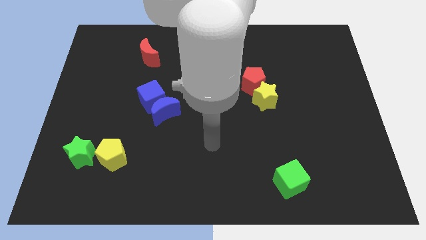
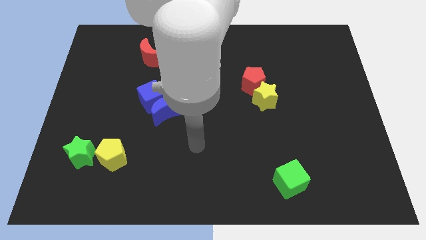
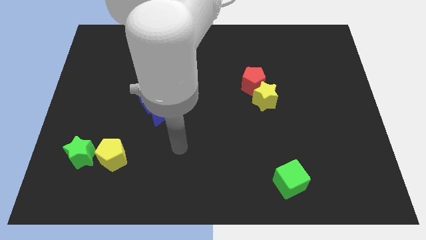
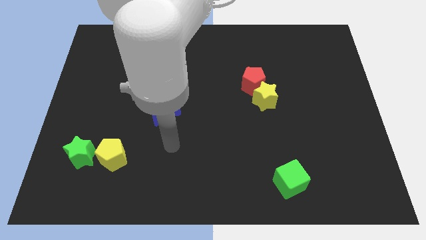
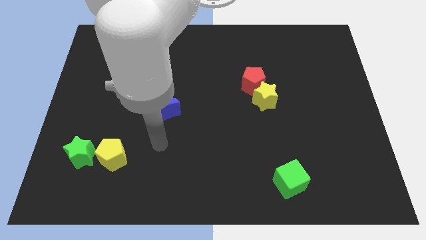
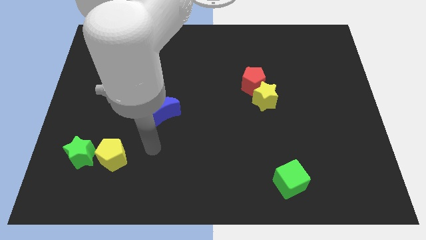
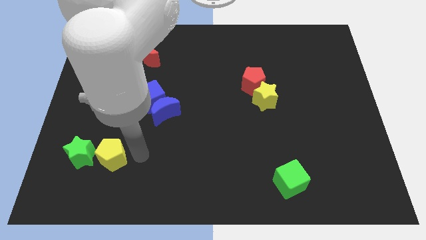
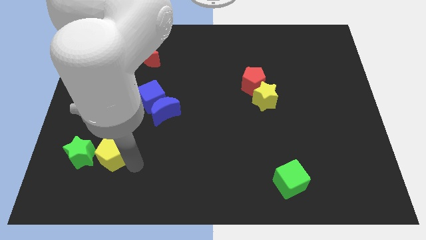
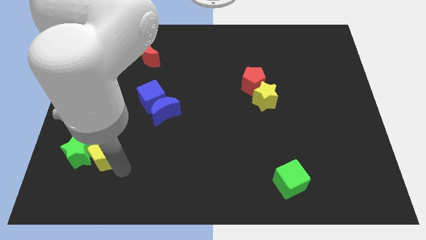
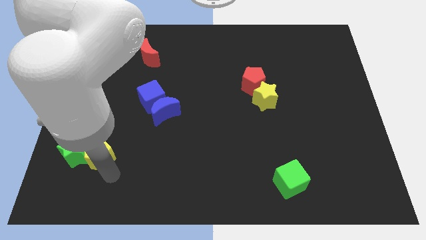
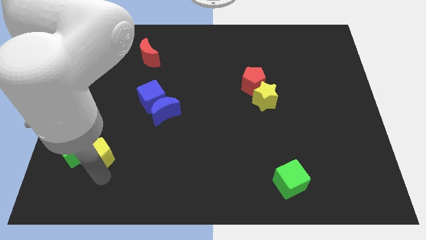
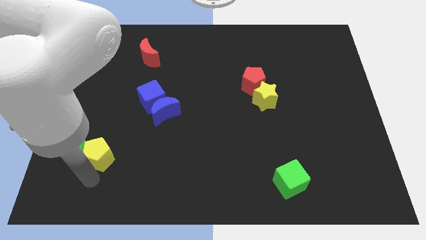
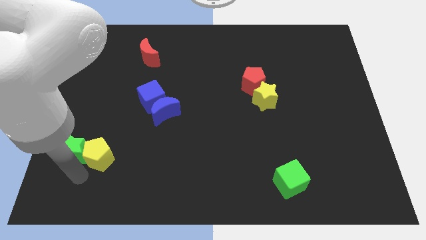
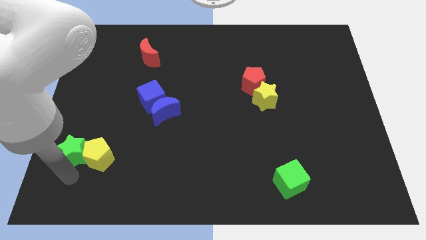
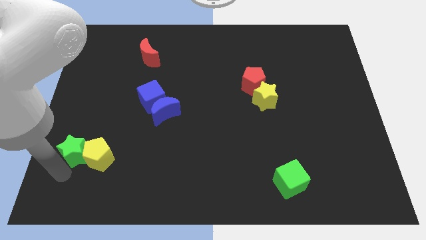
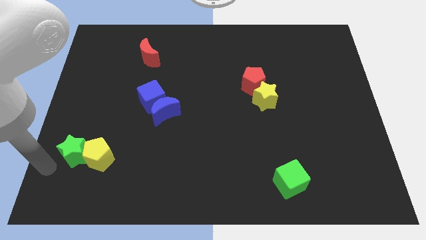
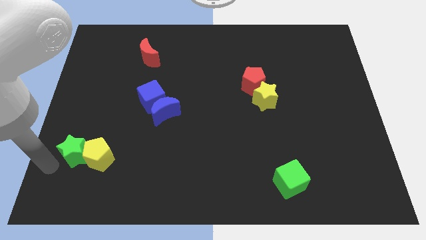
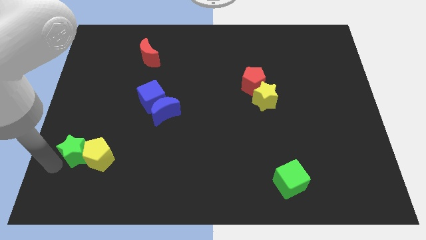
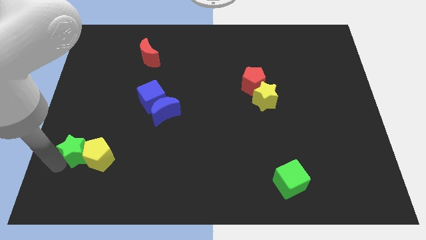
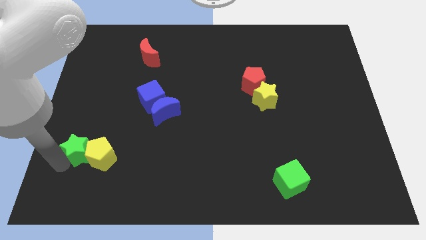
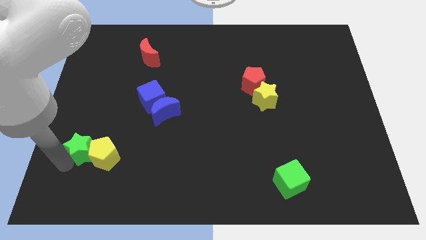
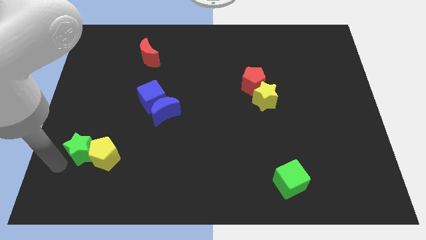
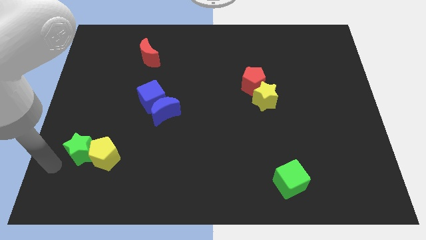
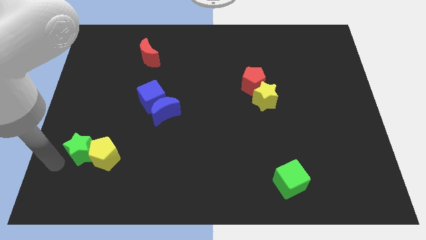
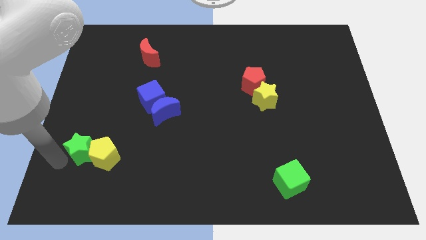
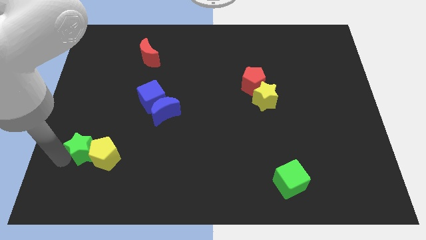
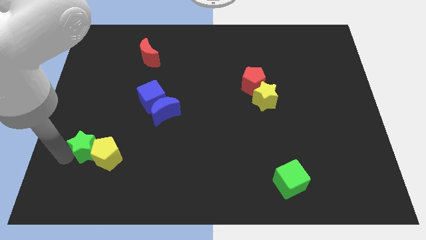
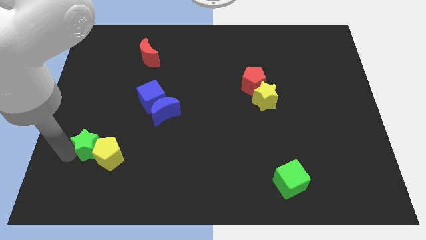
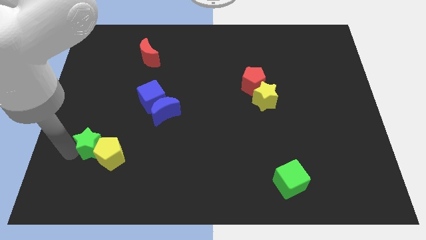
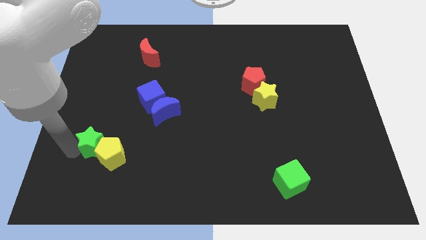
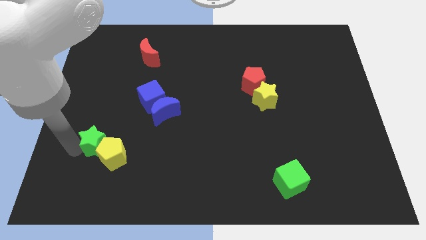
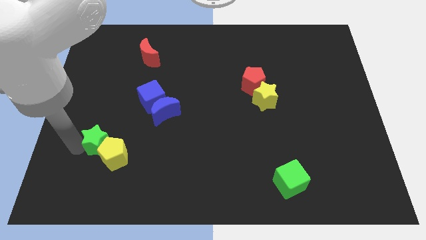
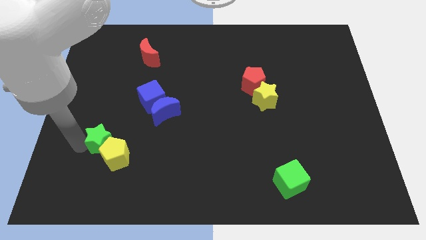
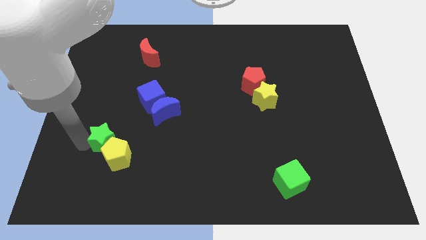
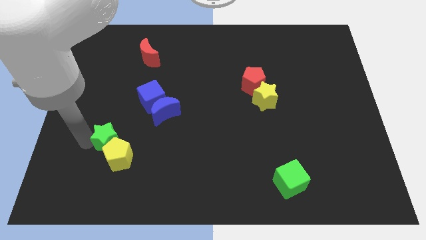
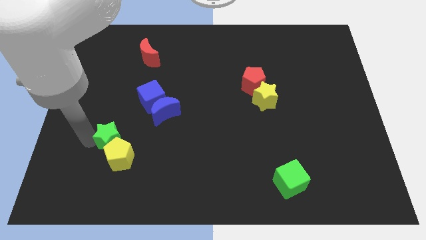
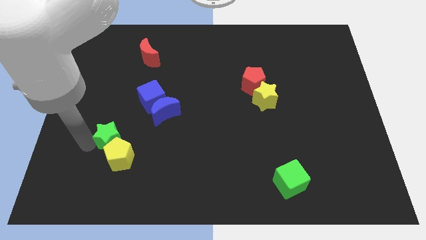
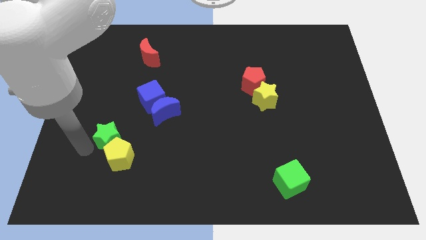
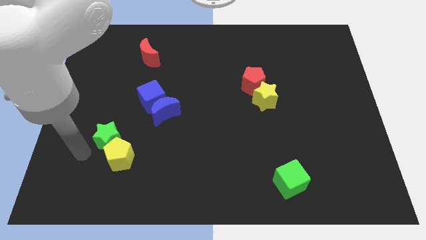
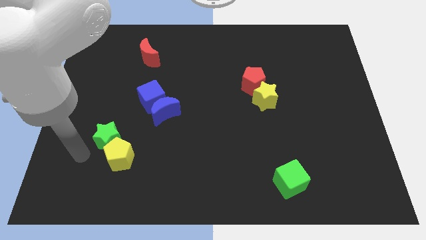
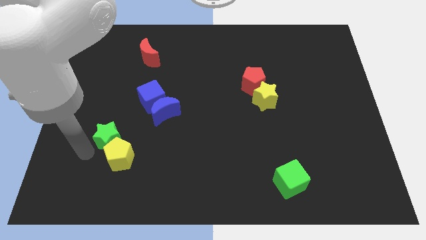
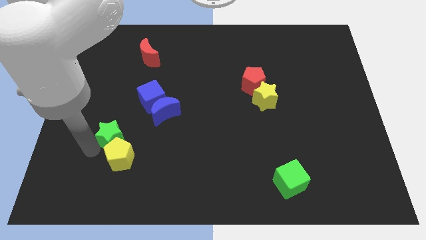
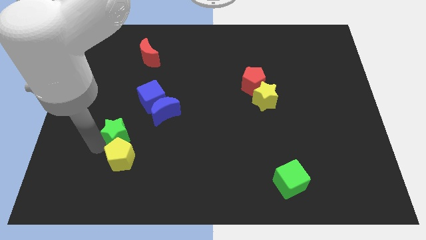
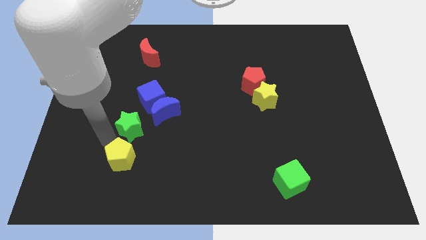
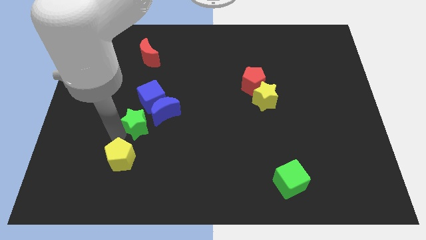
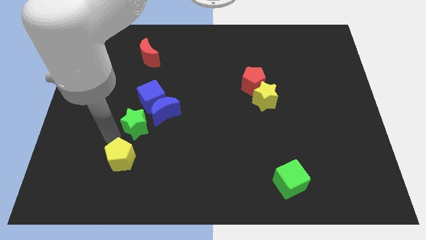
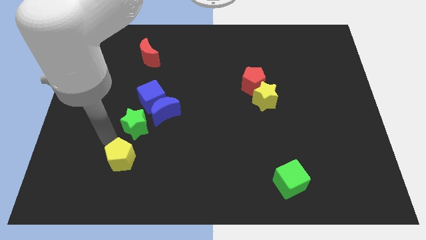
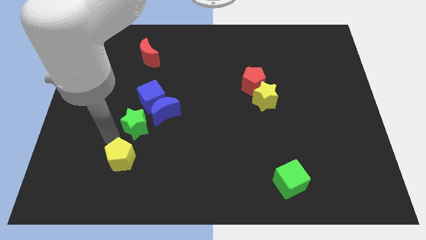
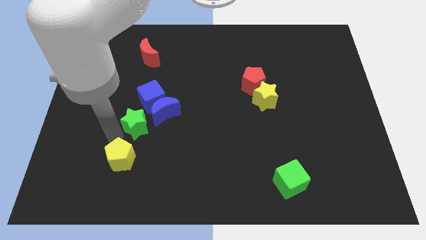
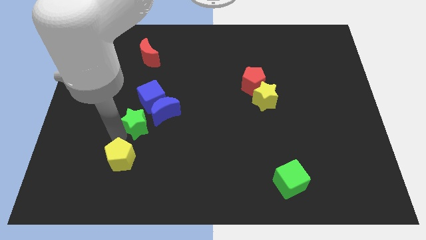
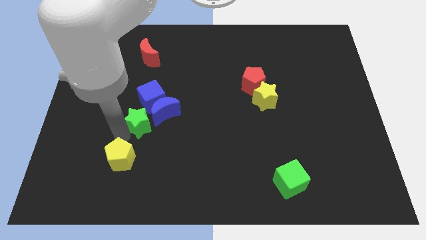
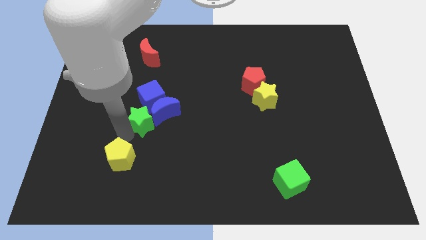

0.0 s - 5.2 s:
slide the green star to the blue moon
